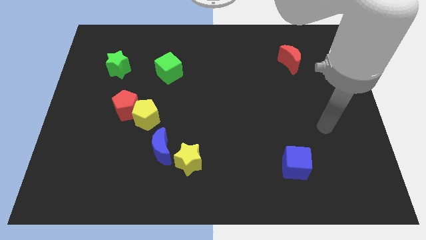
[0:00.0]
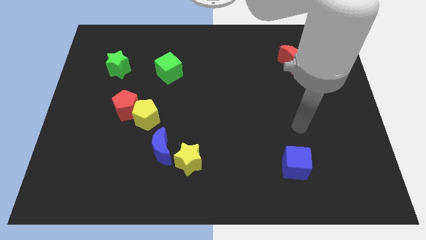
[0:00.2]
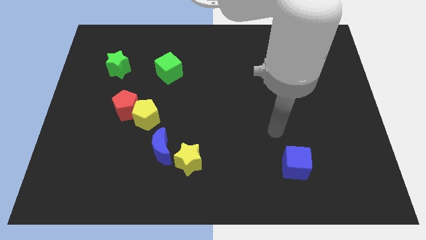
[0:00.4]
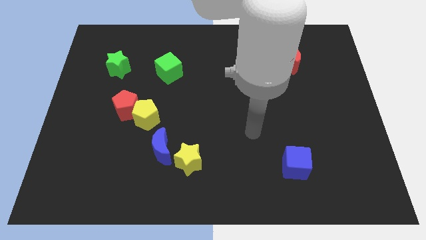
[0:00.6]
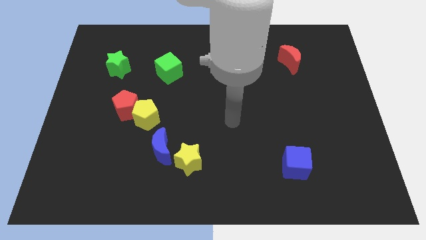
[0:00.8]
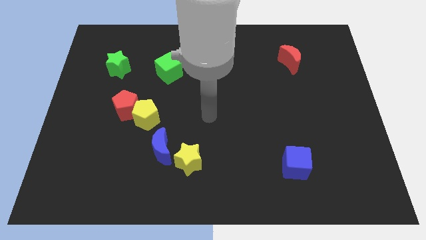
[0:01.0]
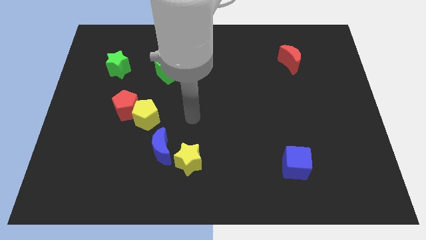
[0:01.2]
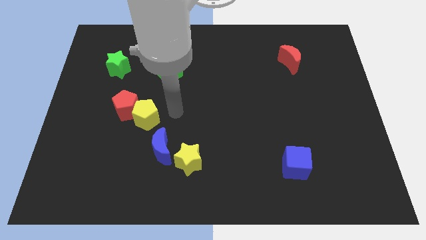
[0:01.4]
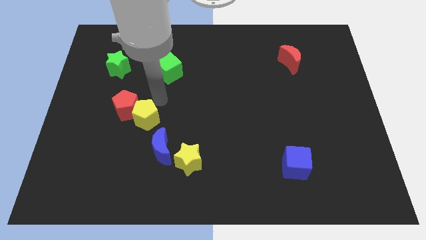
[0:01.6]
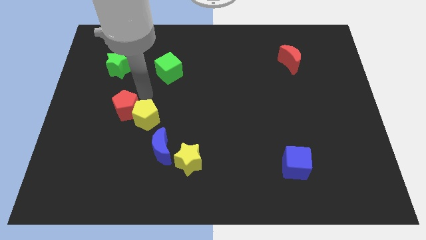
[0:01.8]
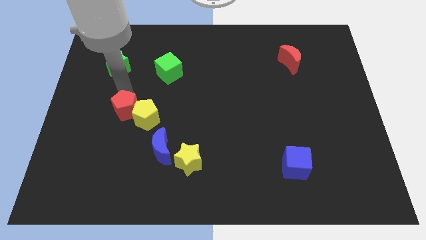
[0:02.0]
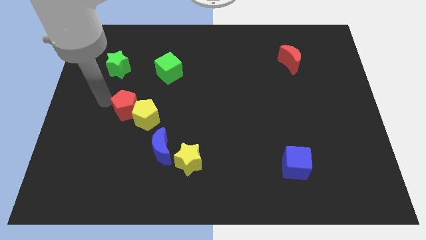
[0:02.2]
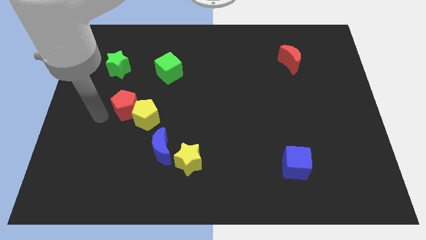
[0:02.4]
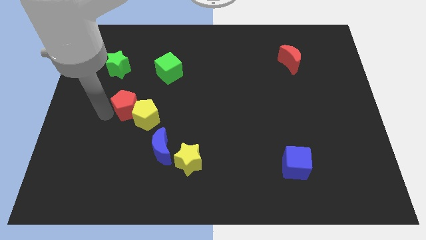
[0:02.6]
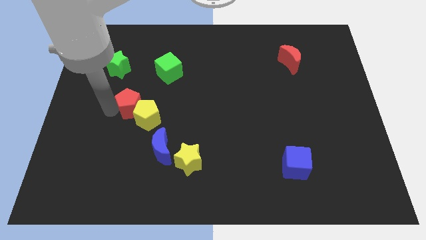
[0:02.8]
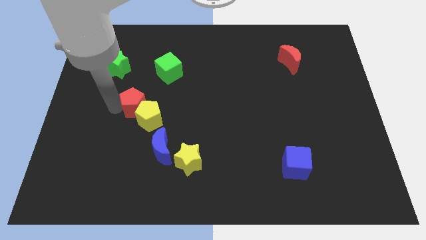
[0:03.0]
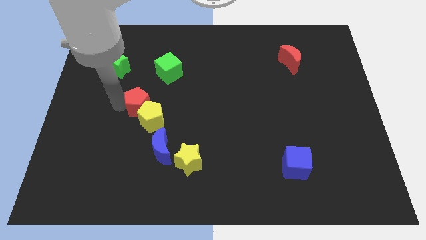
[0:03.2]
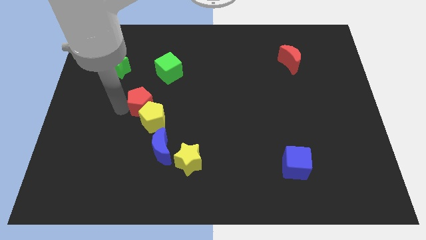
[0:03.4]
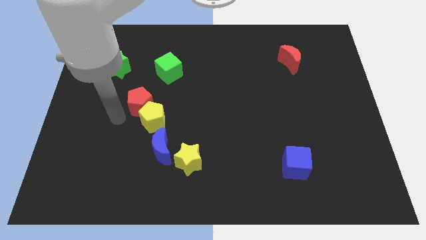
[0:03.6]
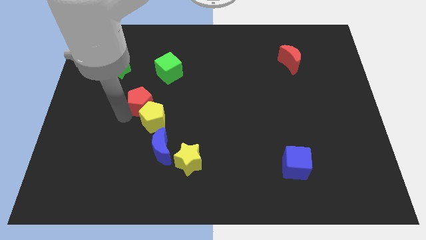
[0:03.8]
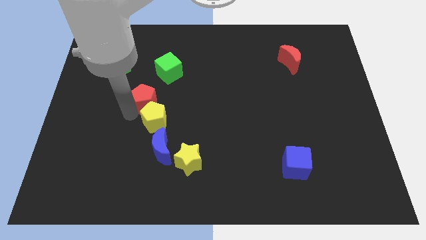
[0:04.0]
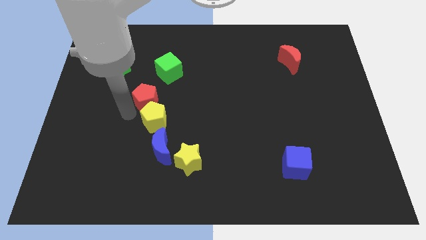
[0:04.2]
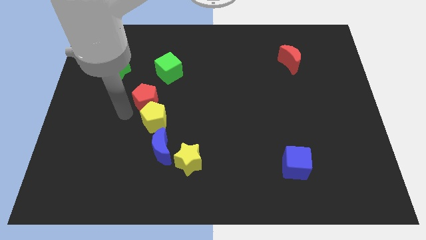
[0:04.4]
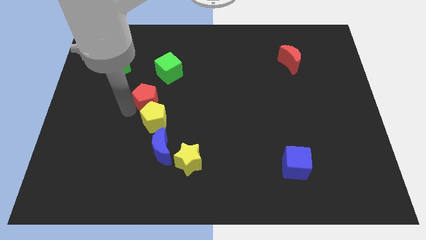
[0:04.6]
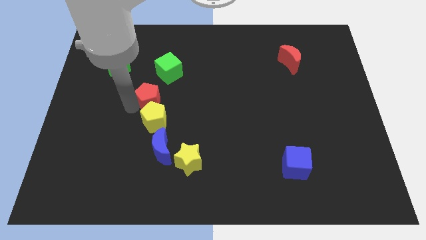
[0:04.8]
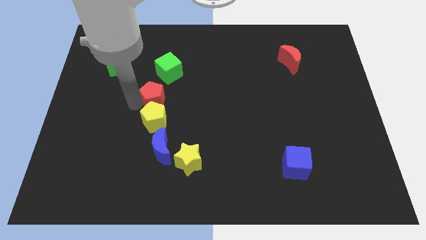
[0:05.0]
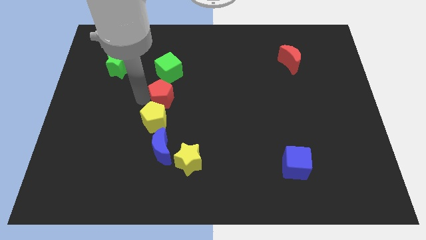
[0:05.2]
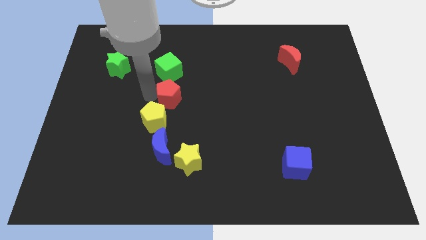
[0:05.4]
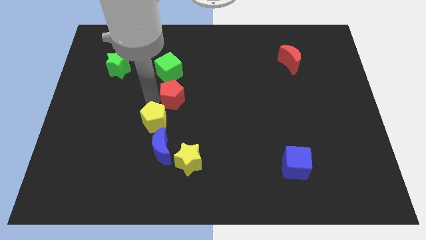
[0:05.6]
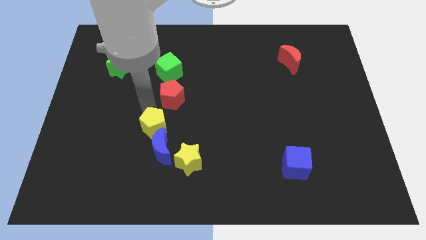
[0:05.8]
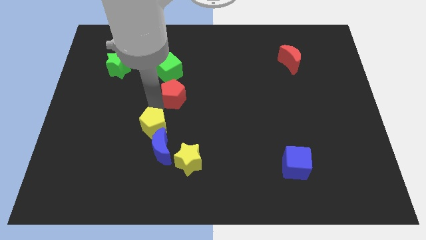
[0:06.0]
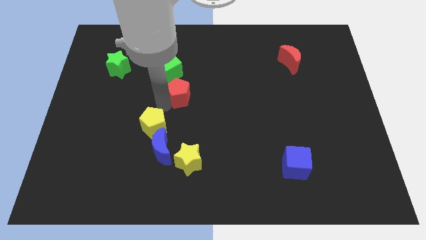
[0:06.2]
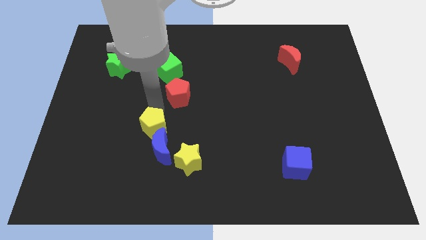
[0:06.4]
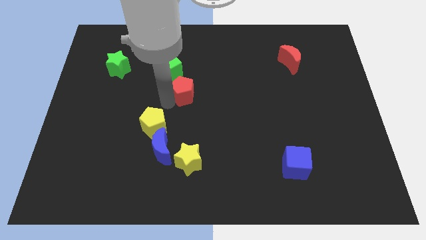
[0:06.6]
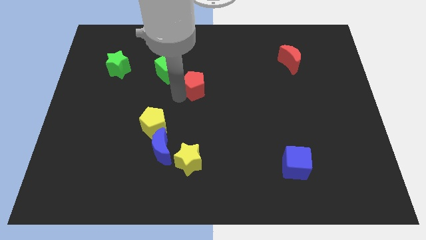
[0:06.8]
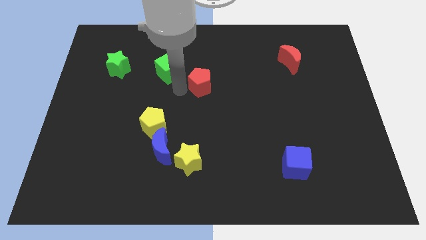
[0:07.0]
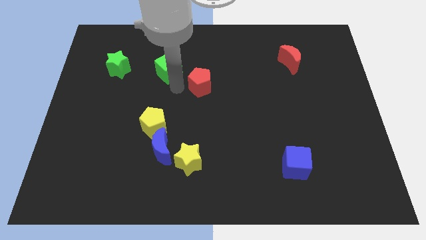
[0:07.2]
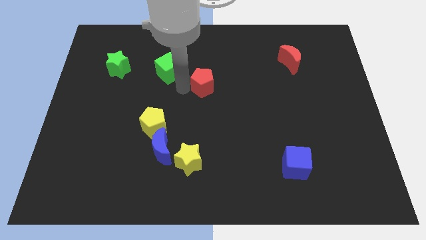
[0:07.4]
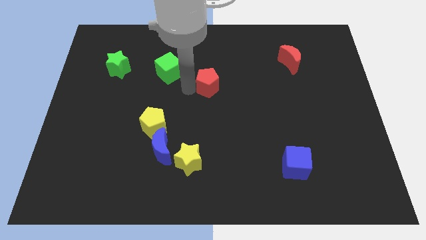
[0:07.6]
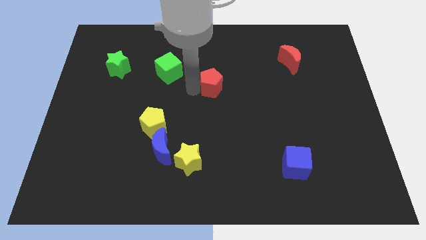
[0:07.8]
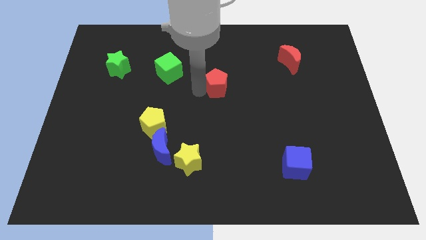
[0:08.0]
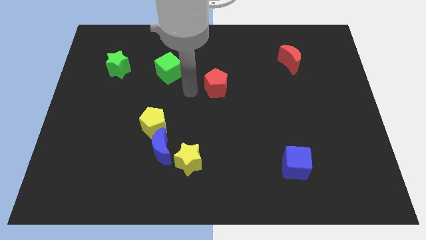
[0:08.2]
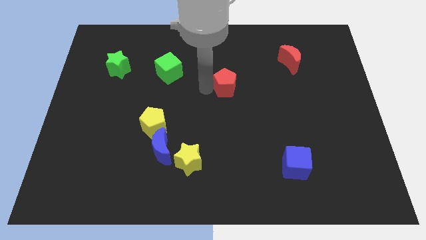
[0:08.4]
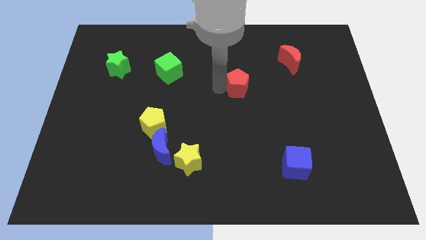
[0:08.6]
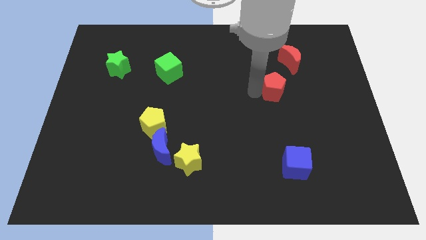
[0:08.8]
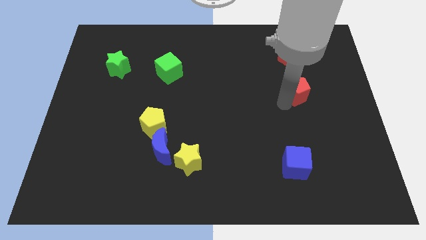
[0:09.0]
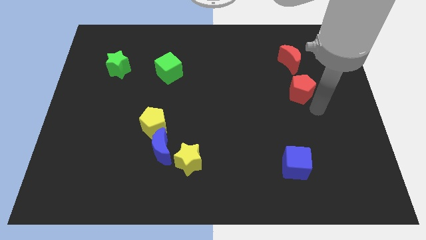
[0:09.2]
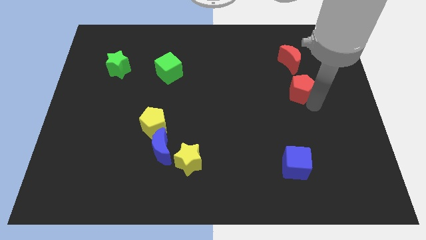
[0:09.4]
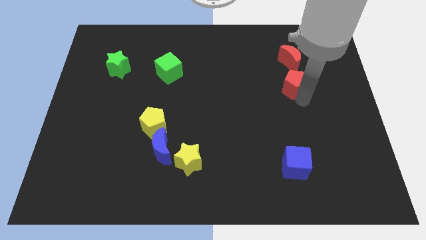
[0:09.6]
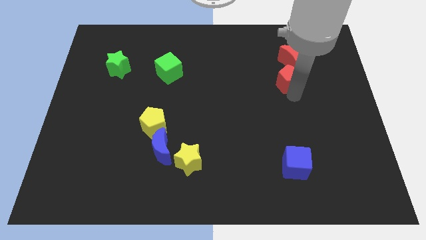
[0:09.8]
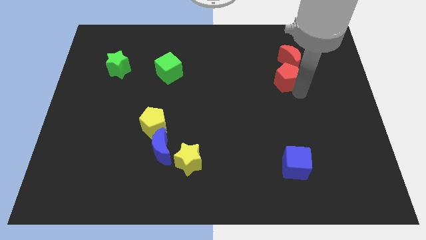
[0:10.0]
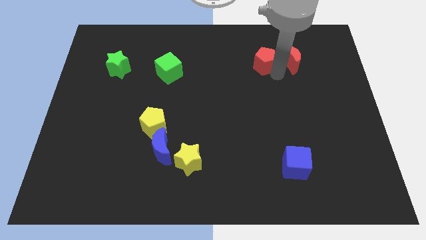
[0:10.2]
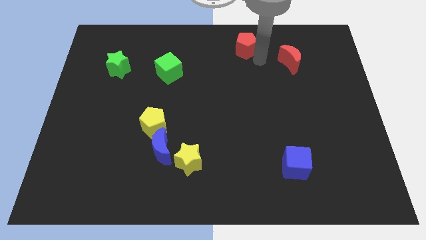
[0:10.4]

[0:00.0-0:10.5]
move the red pentagon to the top

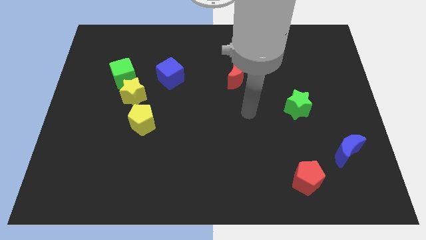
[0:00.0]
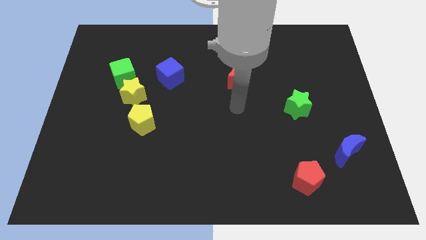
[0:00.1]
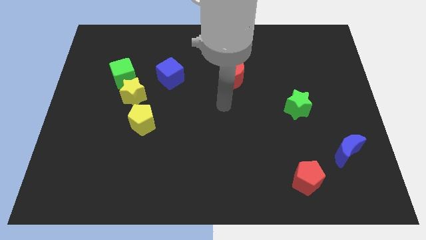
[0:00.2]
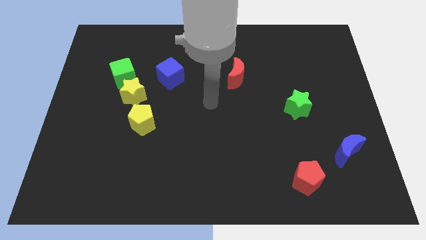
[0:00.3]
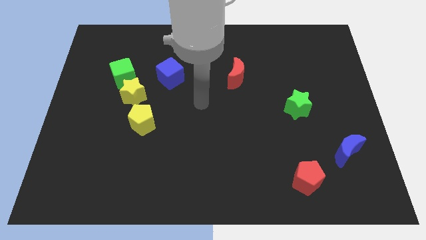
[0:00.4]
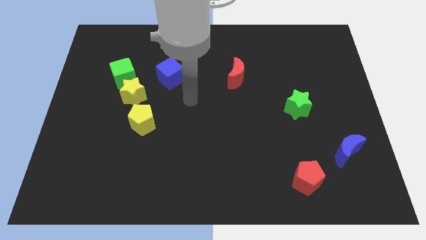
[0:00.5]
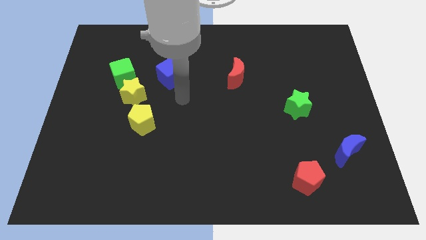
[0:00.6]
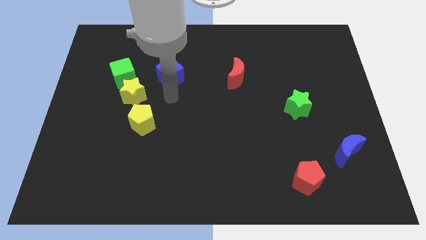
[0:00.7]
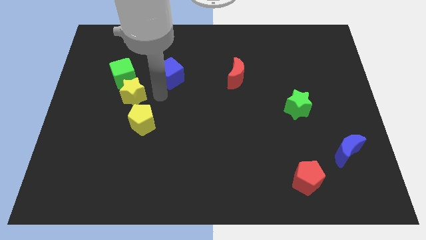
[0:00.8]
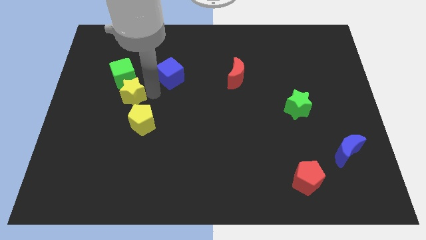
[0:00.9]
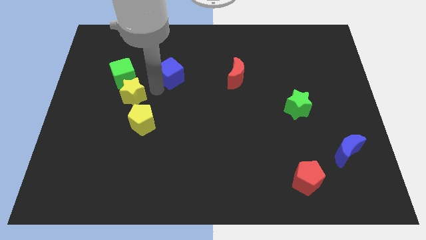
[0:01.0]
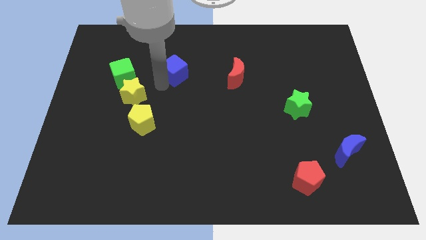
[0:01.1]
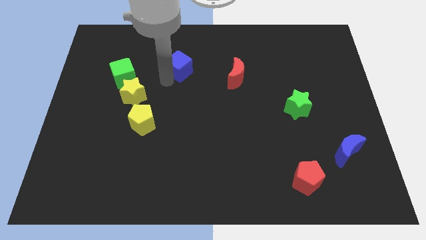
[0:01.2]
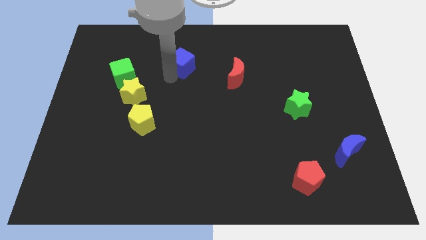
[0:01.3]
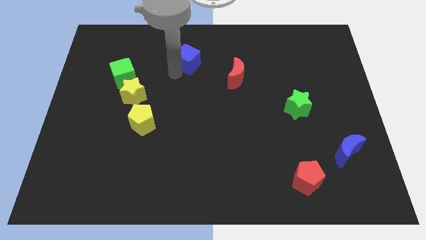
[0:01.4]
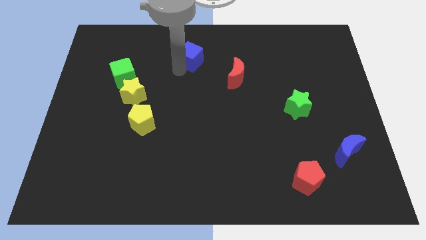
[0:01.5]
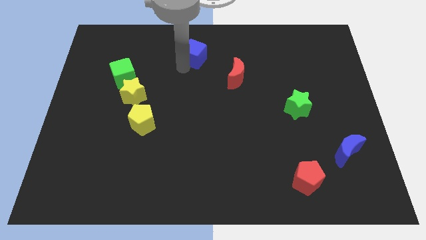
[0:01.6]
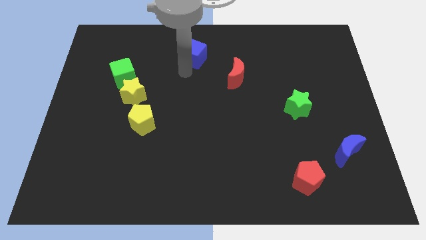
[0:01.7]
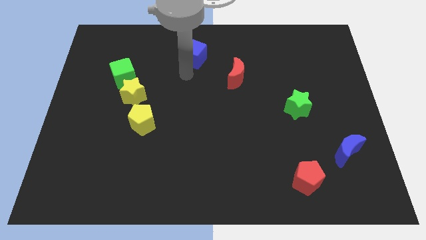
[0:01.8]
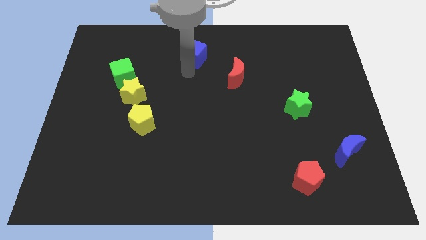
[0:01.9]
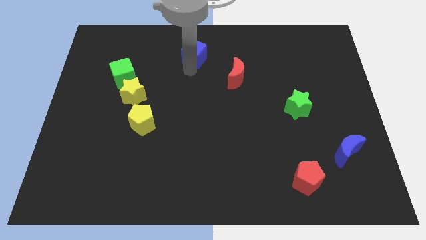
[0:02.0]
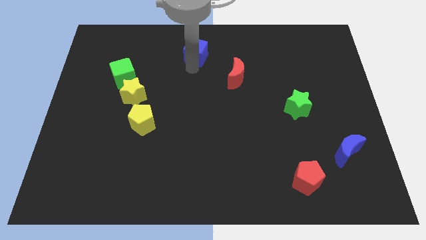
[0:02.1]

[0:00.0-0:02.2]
move the blue cube to the top
